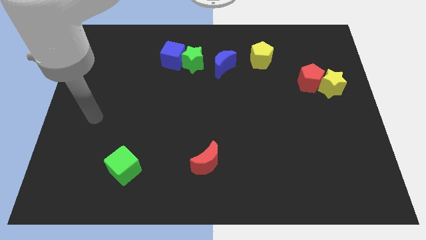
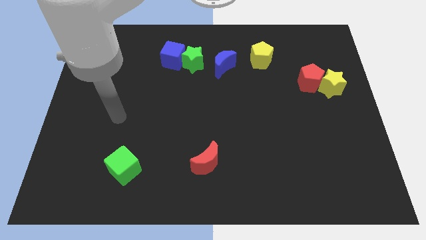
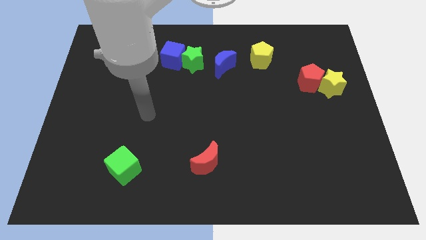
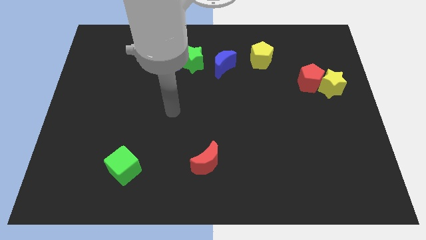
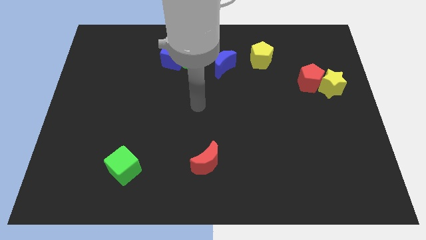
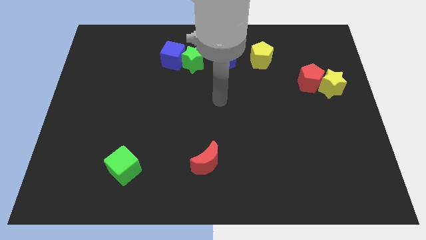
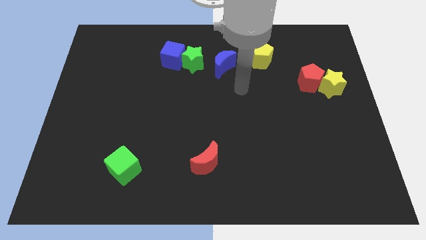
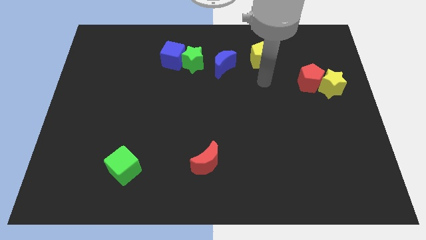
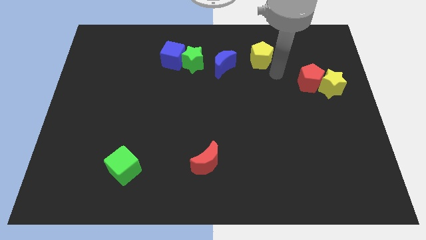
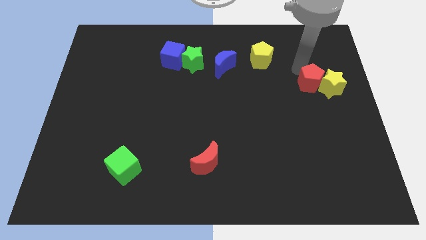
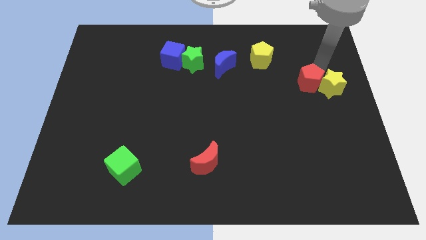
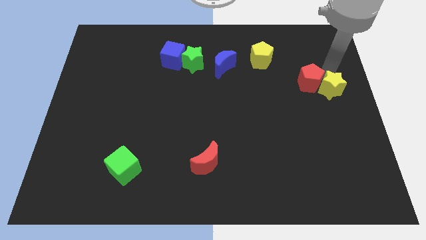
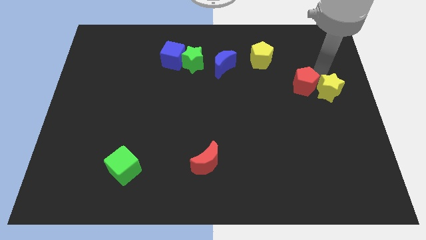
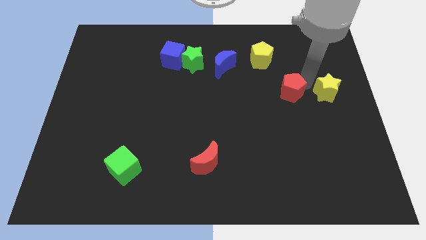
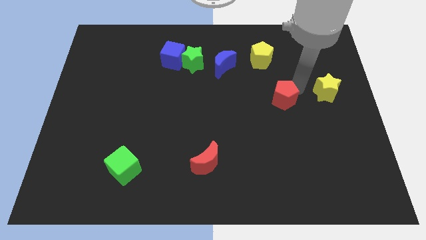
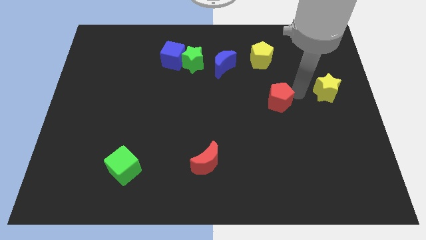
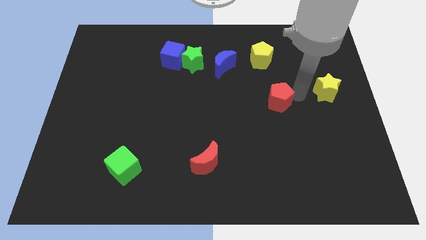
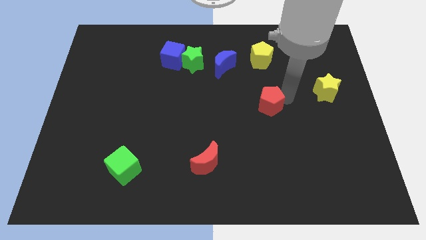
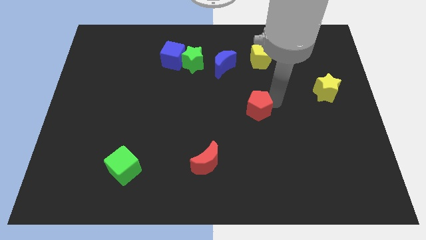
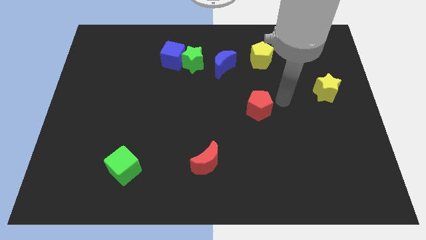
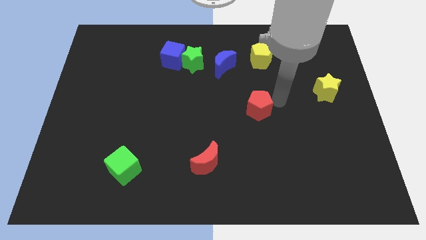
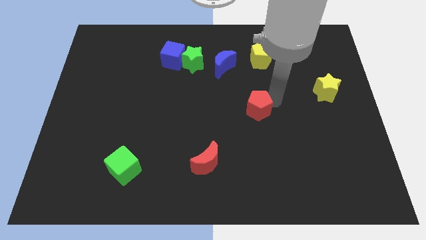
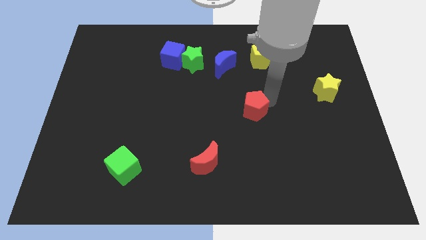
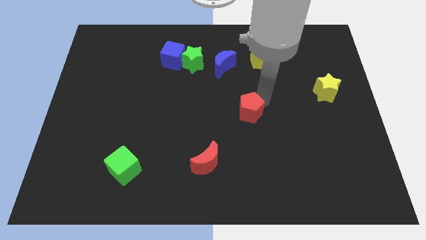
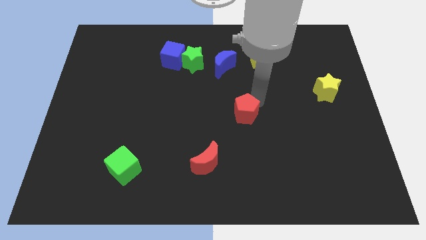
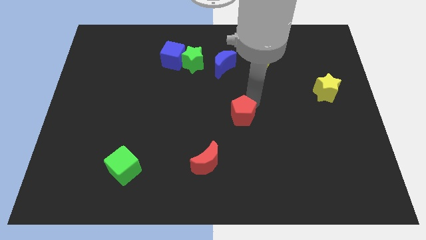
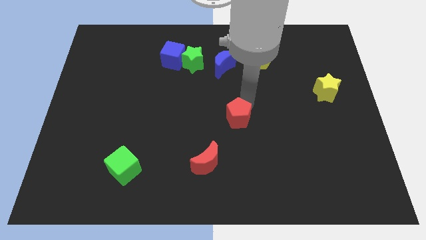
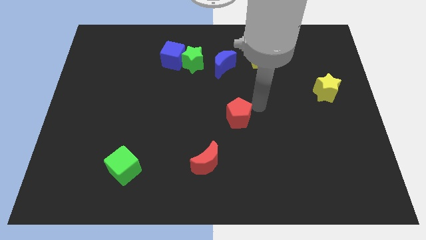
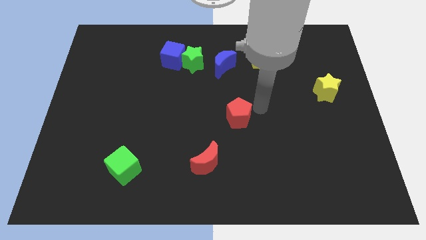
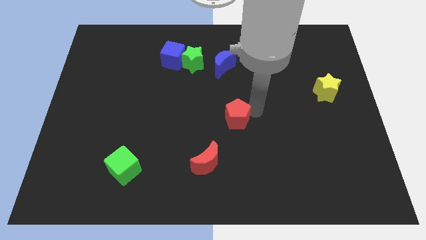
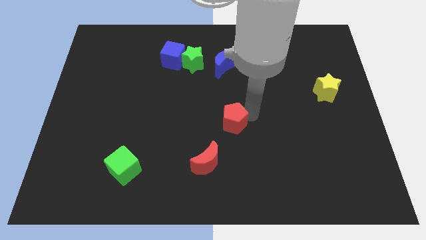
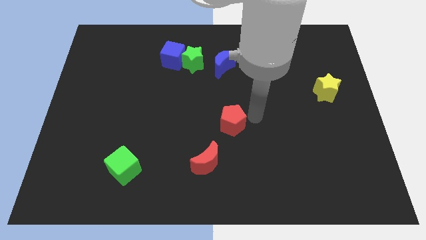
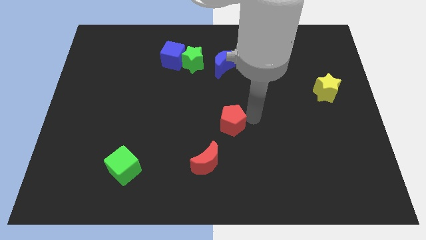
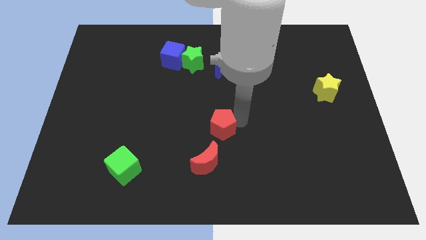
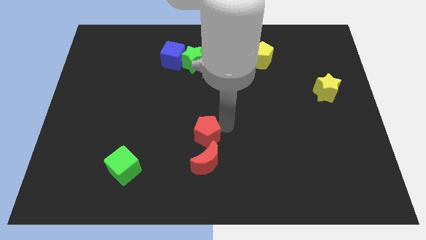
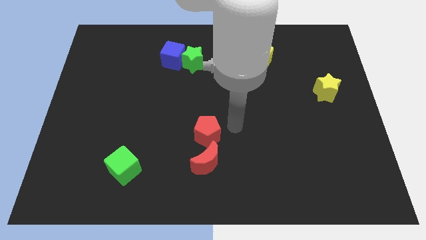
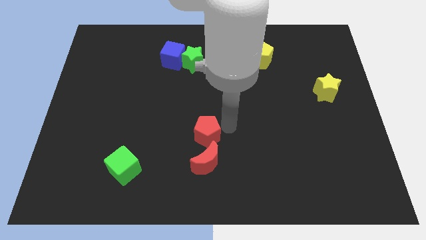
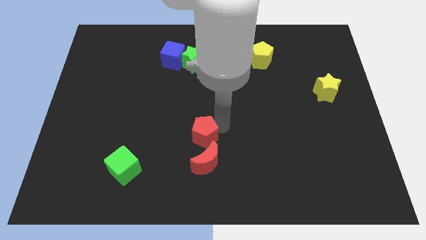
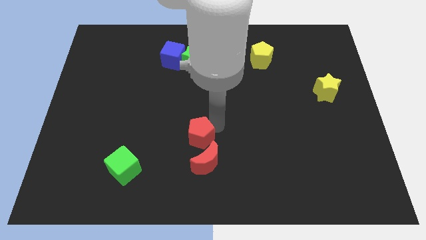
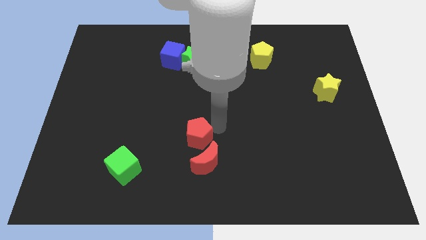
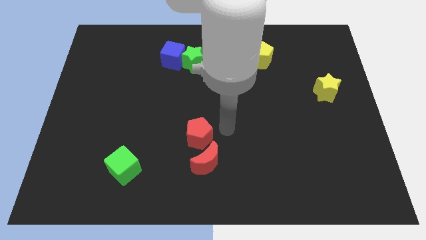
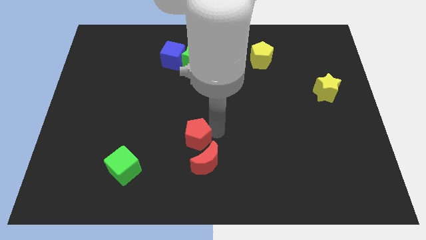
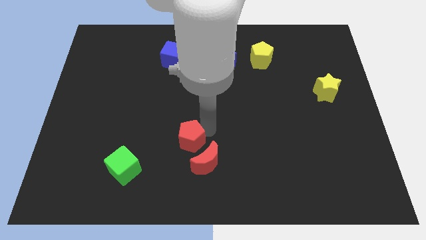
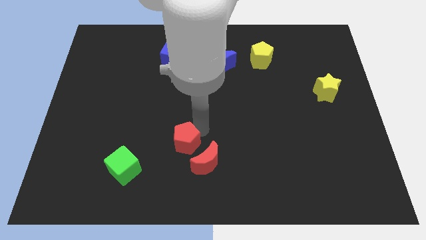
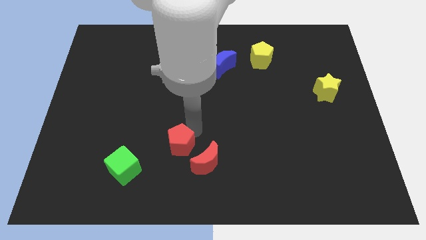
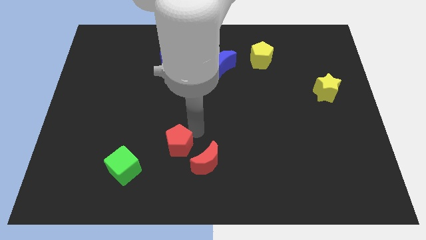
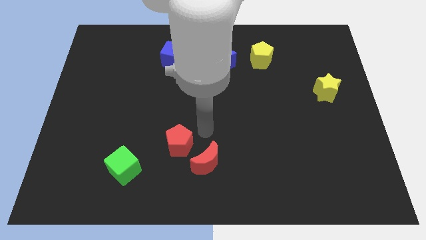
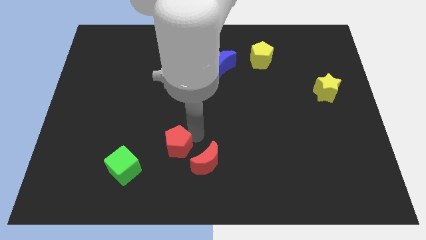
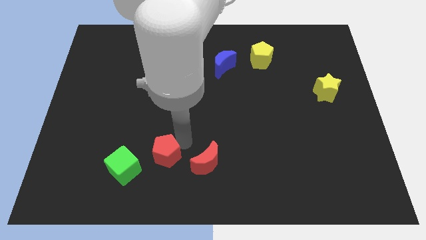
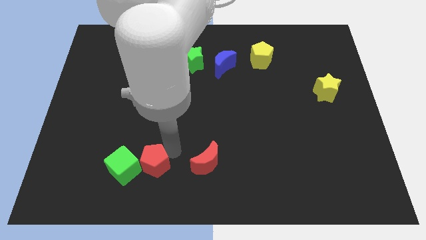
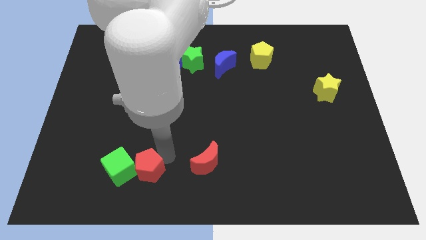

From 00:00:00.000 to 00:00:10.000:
put the red pentagon to the green cube

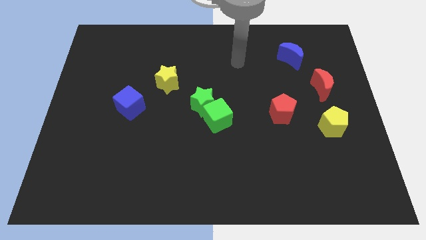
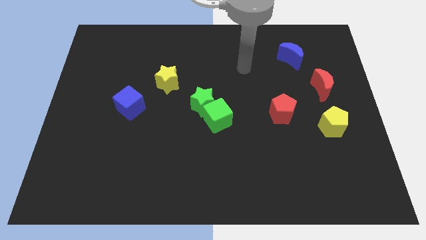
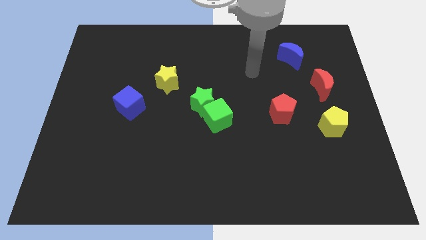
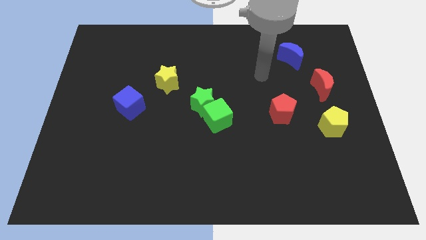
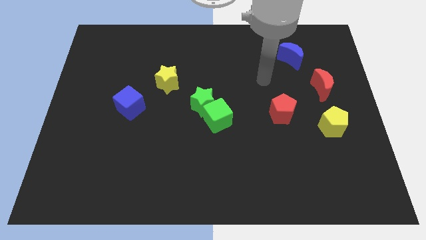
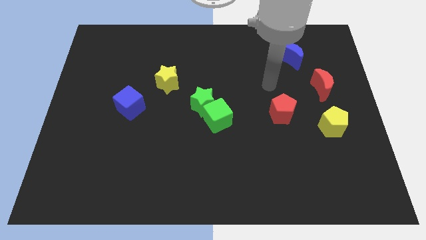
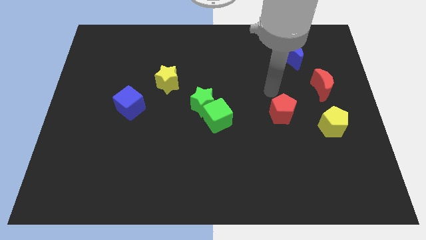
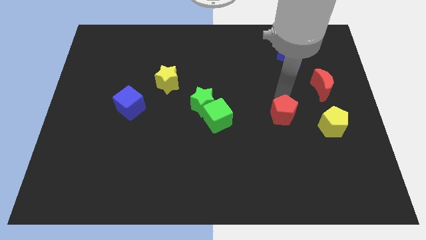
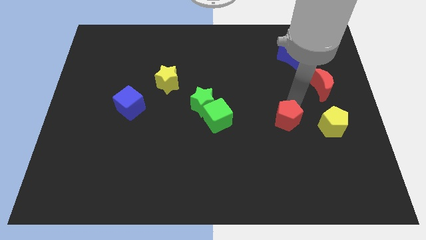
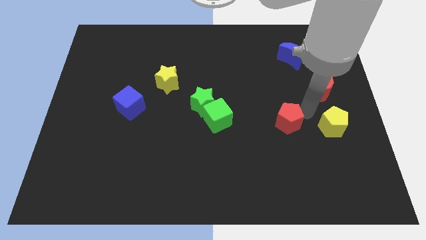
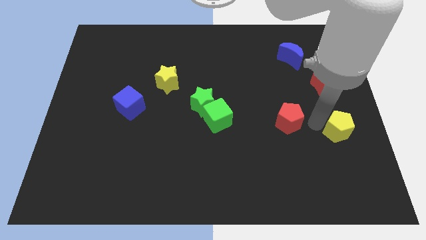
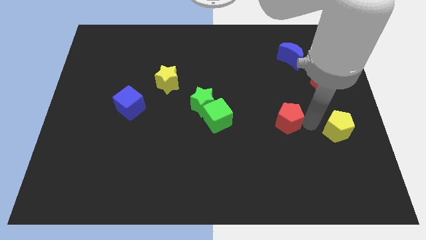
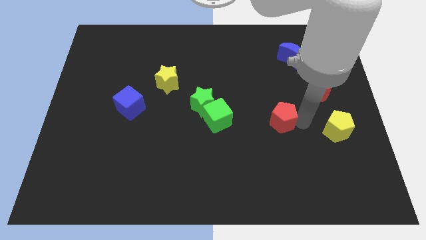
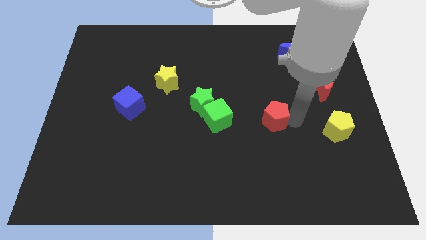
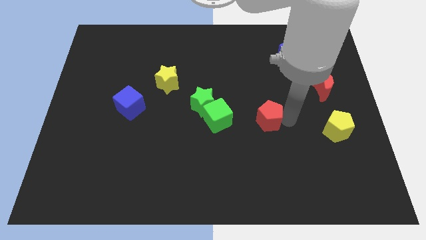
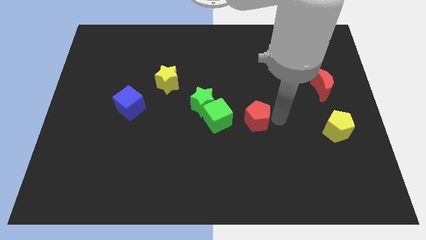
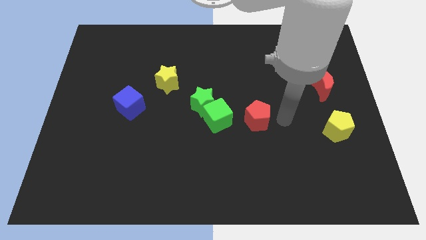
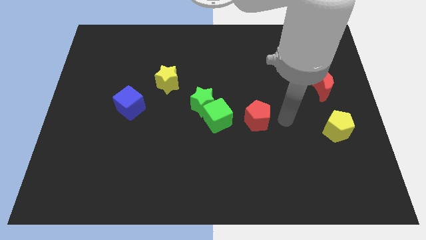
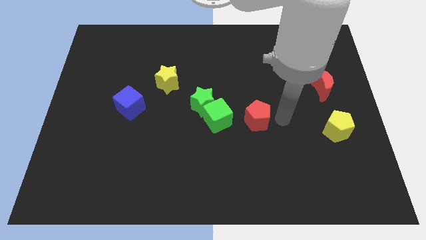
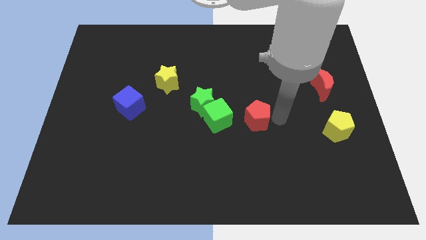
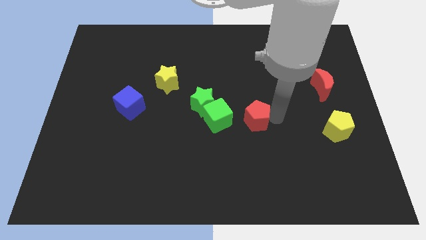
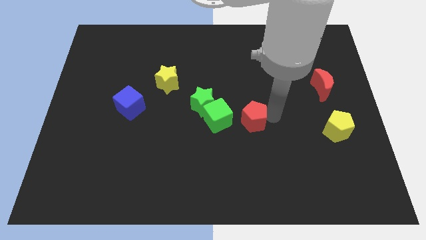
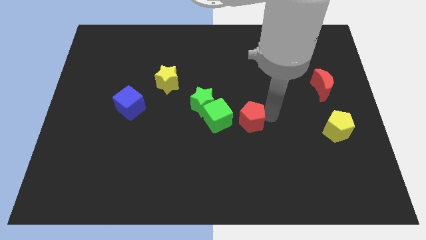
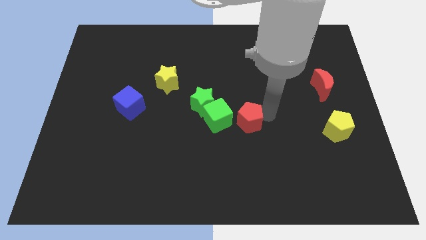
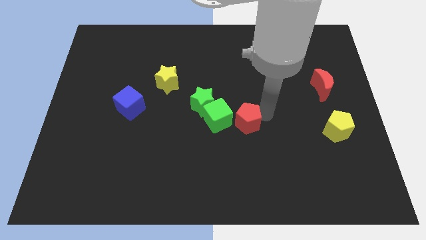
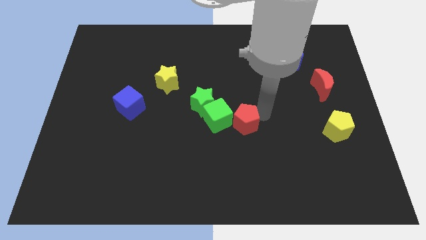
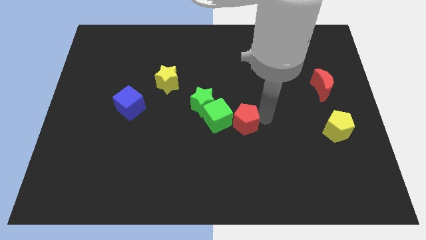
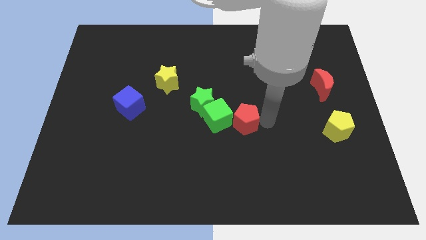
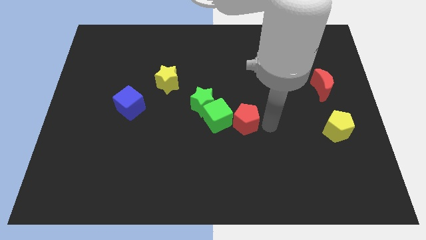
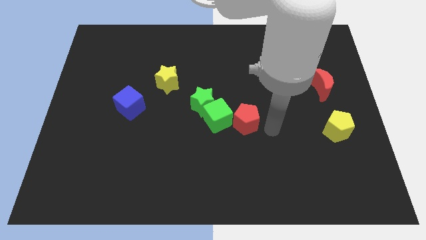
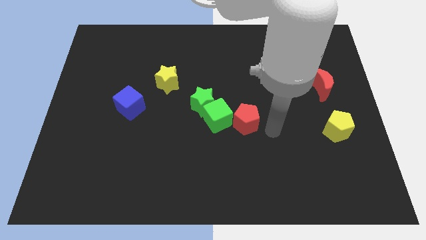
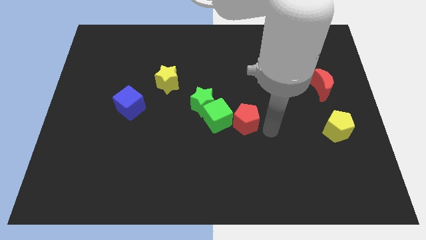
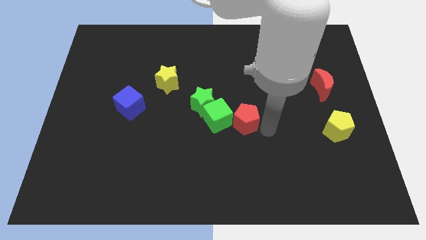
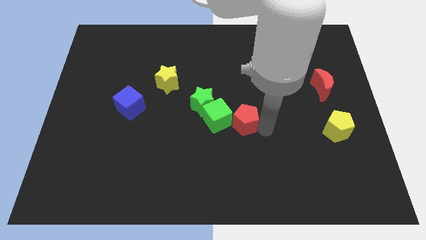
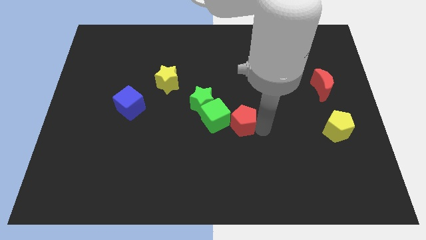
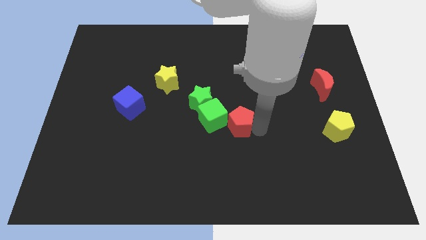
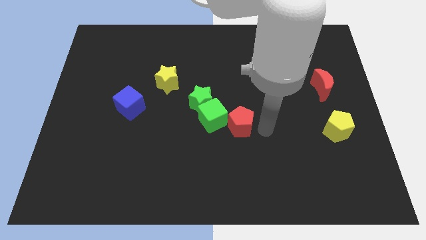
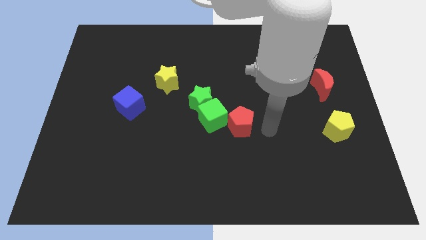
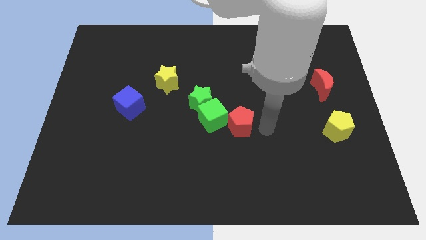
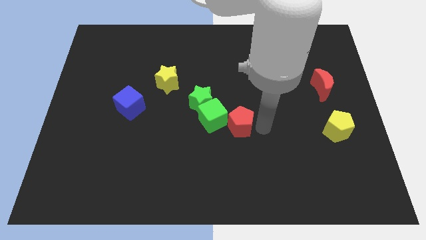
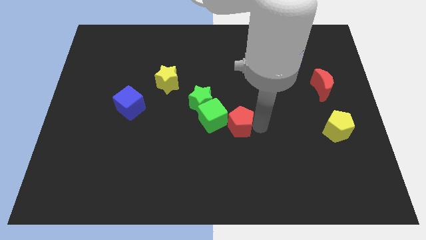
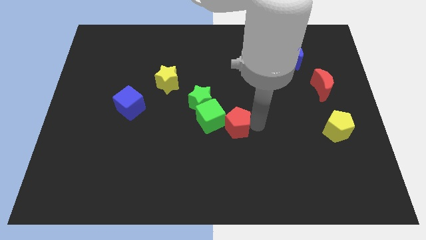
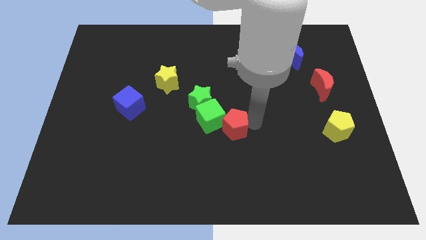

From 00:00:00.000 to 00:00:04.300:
push the red pentagon next to the green cube
